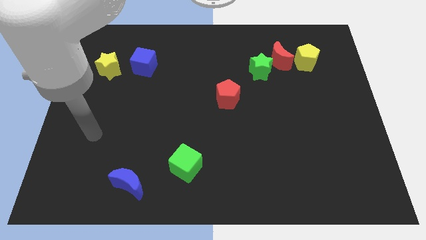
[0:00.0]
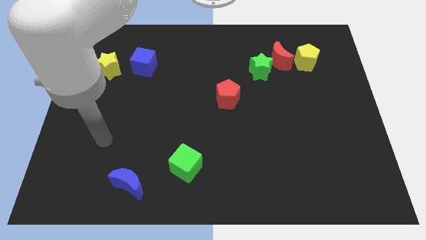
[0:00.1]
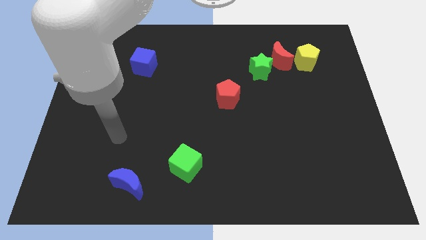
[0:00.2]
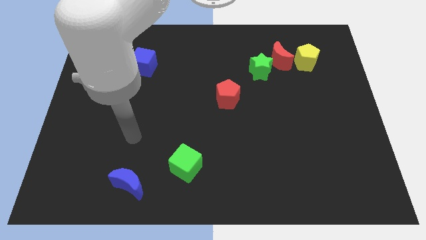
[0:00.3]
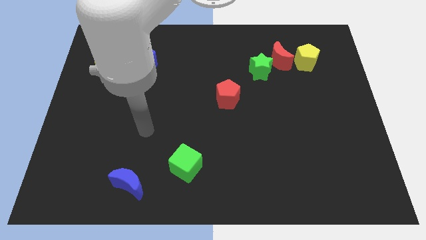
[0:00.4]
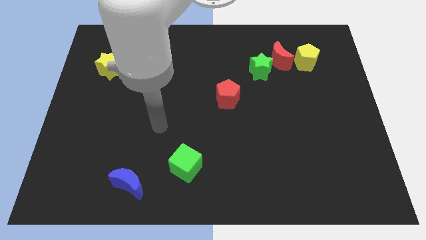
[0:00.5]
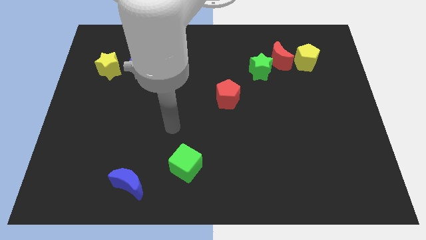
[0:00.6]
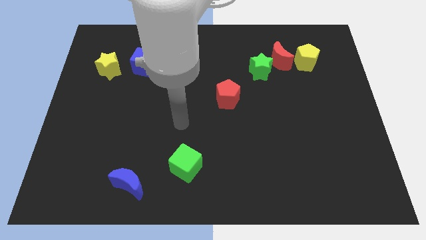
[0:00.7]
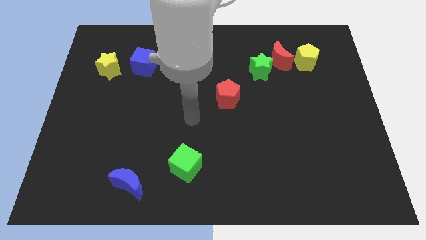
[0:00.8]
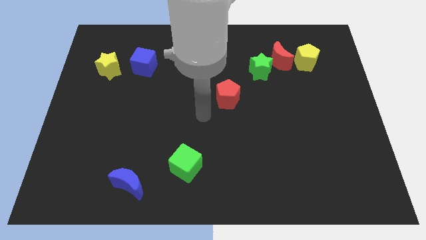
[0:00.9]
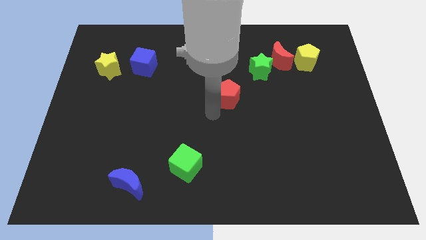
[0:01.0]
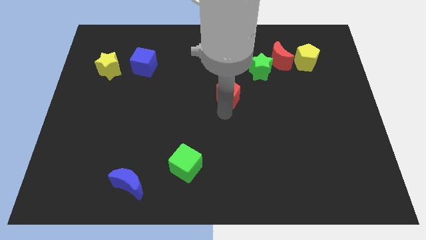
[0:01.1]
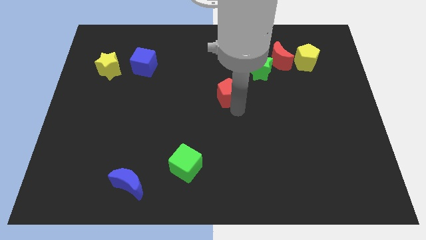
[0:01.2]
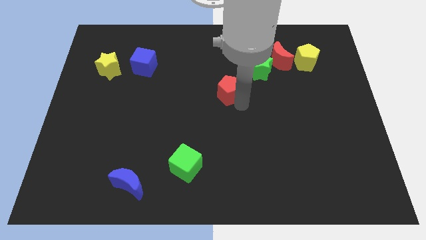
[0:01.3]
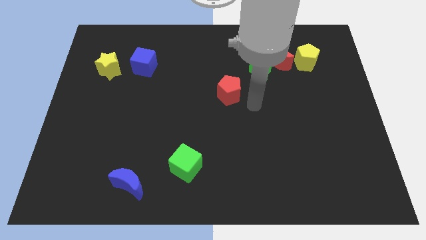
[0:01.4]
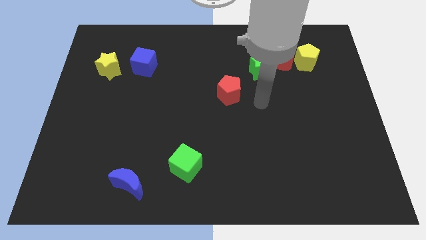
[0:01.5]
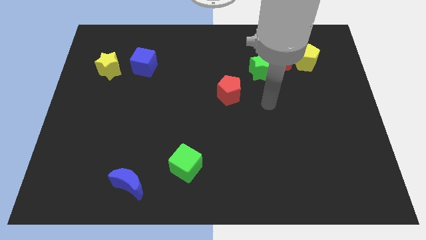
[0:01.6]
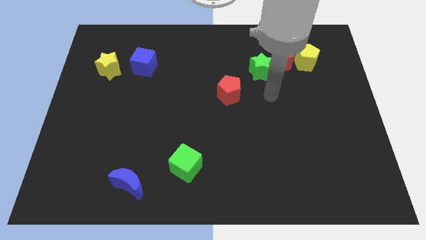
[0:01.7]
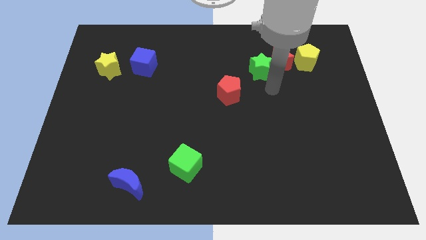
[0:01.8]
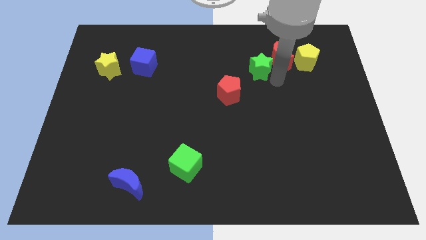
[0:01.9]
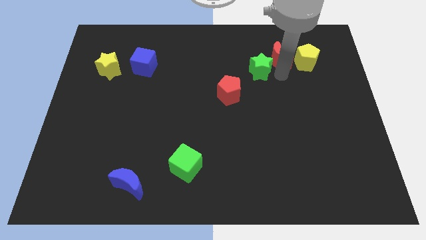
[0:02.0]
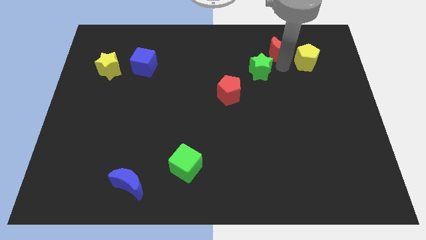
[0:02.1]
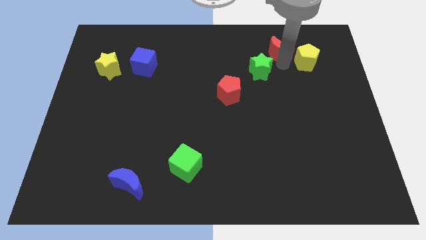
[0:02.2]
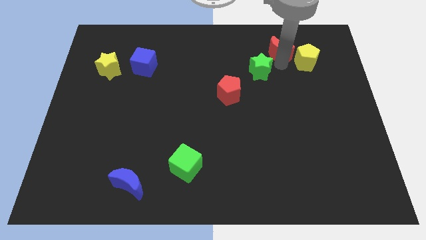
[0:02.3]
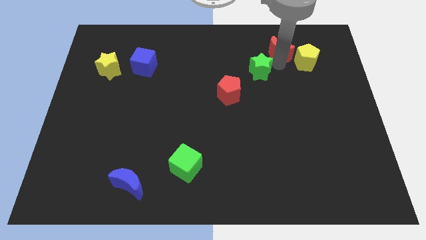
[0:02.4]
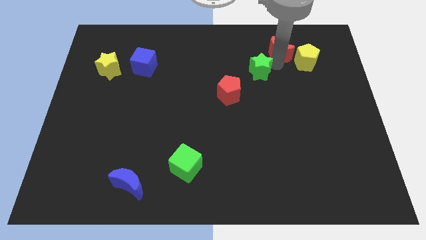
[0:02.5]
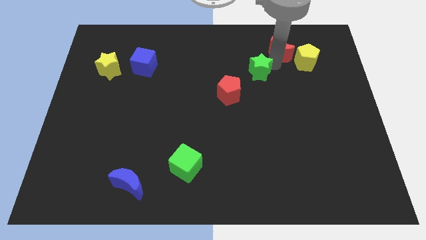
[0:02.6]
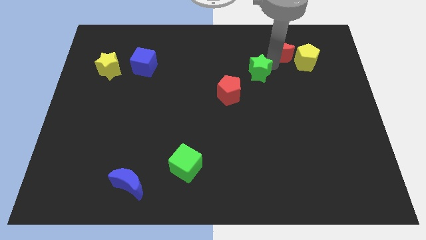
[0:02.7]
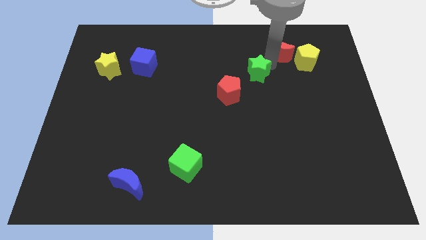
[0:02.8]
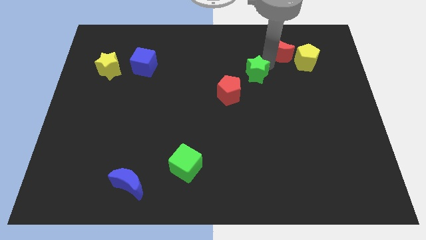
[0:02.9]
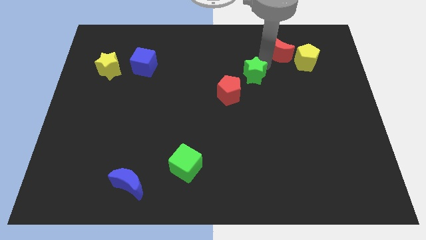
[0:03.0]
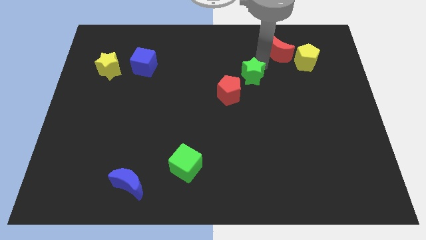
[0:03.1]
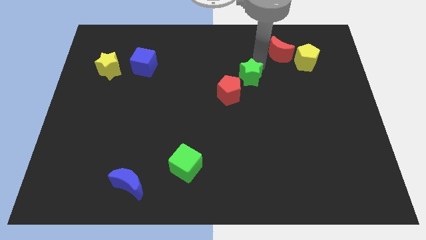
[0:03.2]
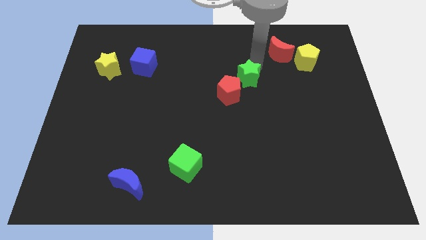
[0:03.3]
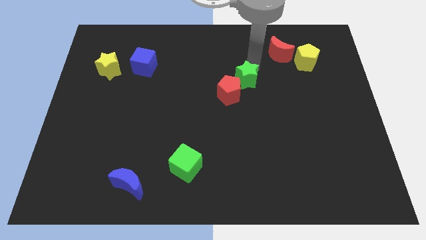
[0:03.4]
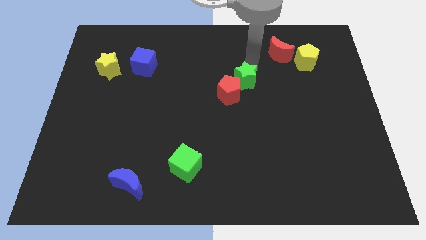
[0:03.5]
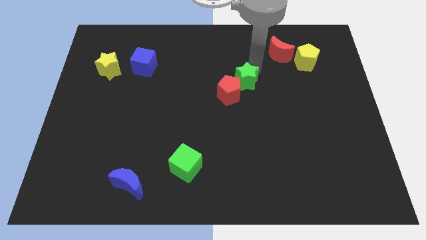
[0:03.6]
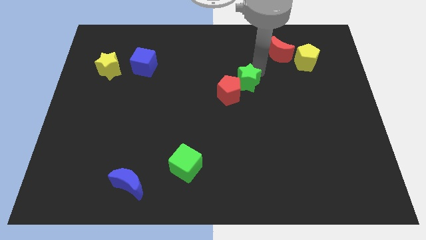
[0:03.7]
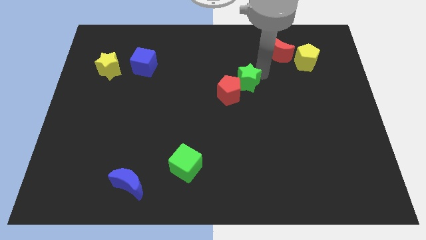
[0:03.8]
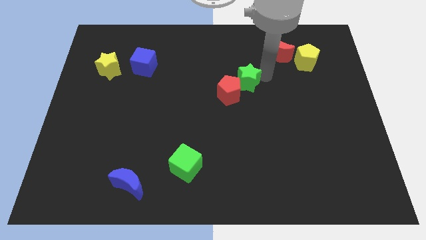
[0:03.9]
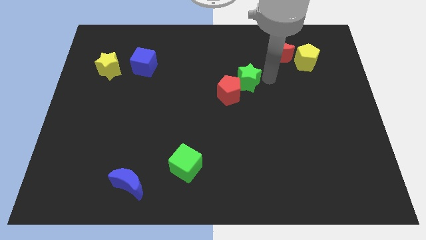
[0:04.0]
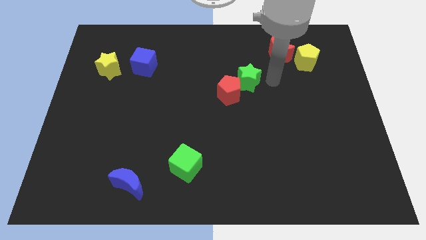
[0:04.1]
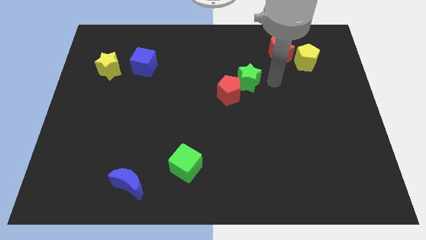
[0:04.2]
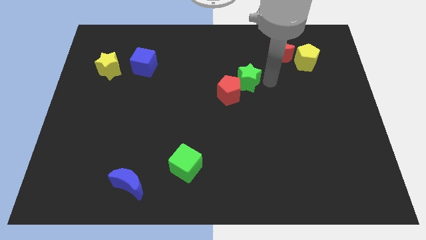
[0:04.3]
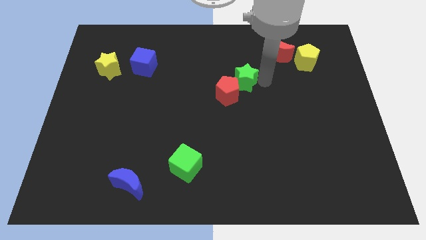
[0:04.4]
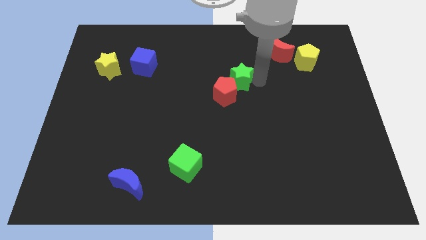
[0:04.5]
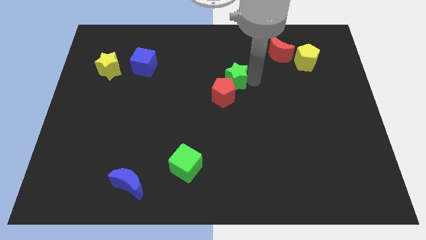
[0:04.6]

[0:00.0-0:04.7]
push the green star downwards and left diagonally a bit

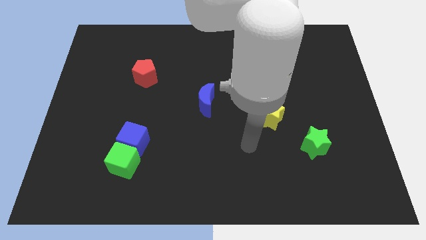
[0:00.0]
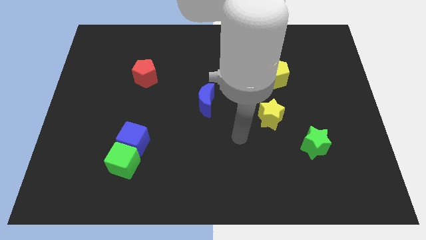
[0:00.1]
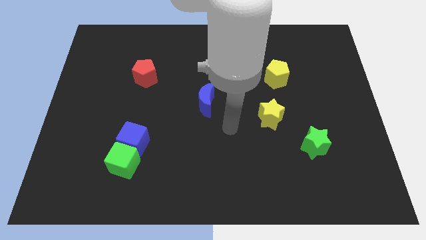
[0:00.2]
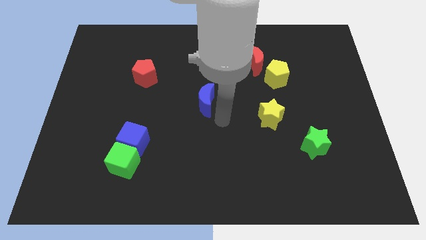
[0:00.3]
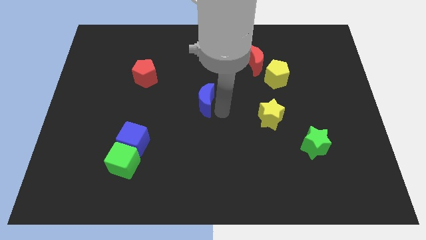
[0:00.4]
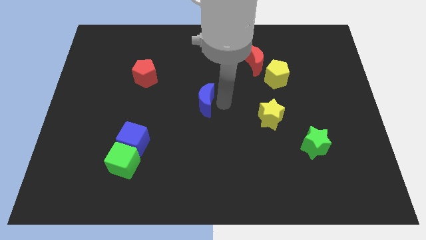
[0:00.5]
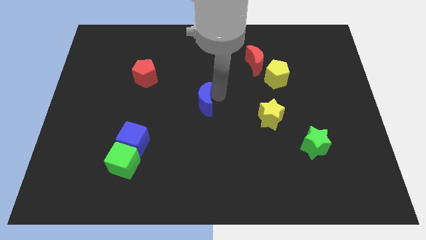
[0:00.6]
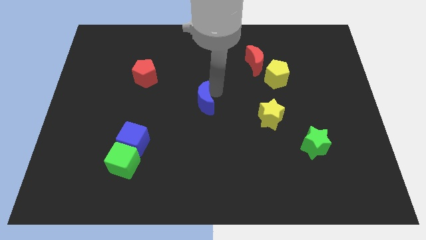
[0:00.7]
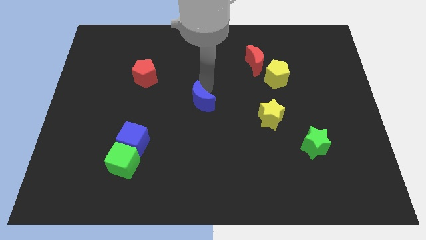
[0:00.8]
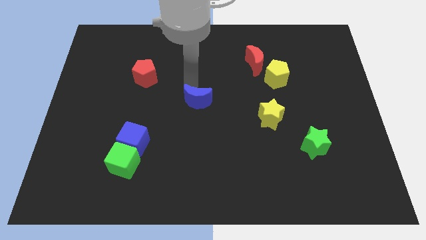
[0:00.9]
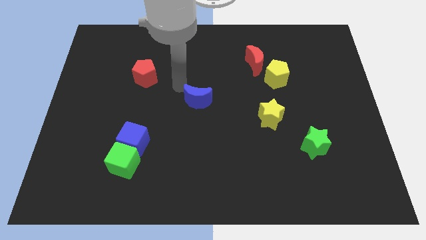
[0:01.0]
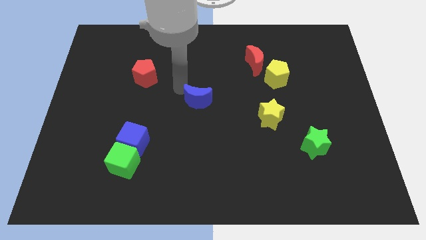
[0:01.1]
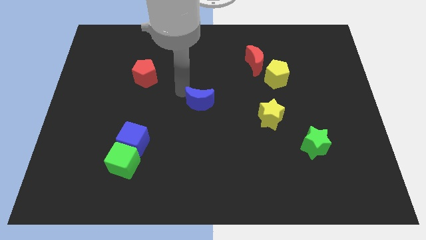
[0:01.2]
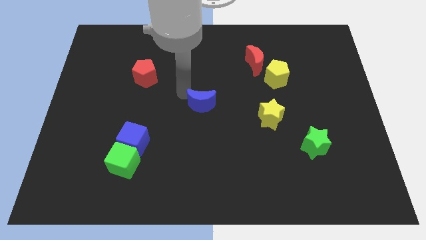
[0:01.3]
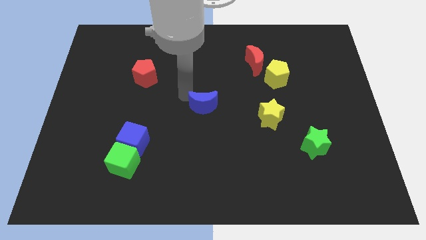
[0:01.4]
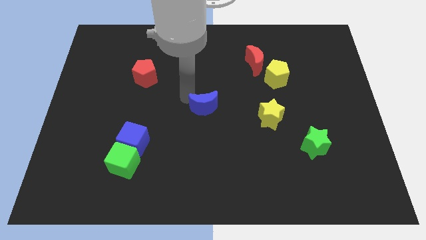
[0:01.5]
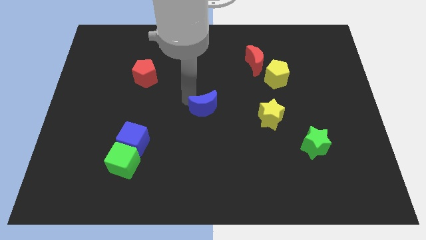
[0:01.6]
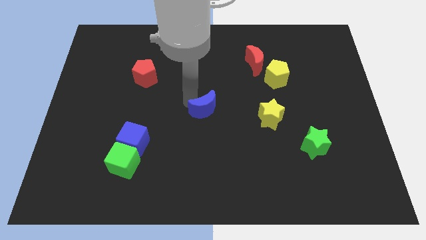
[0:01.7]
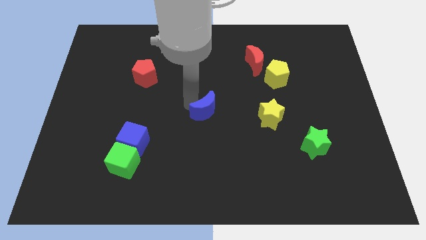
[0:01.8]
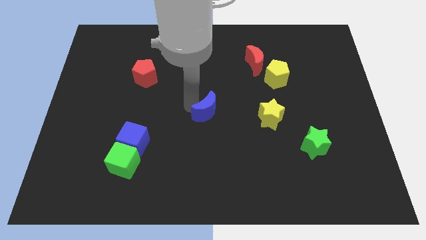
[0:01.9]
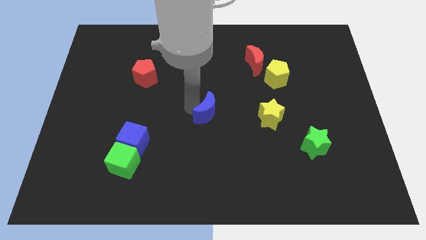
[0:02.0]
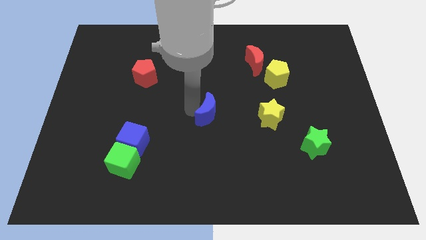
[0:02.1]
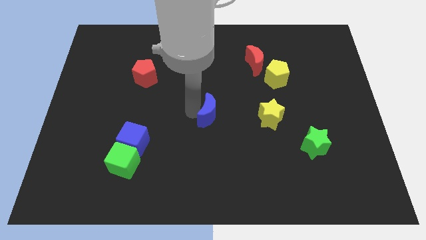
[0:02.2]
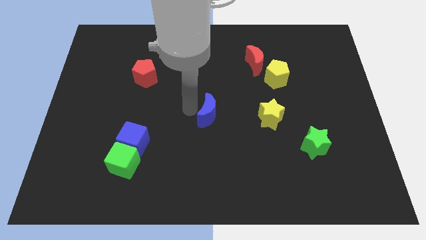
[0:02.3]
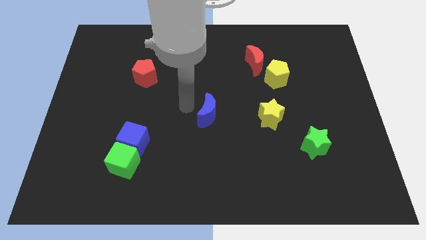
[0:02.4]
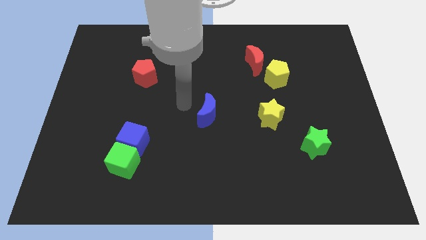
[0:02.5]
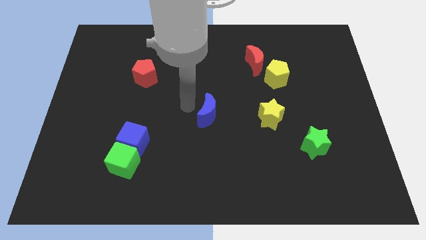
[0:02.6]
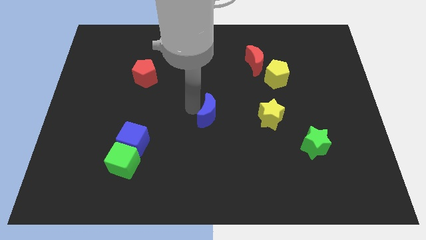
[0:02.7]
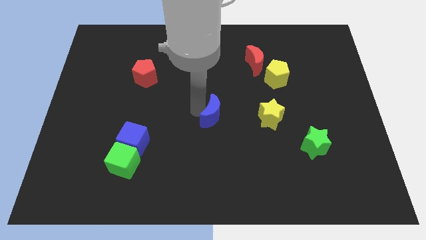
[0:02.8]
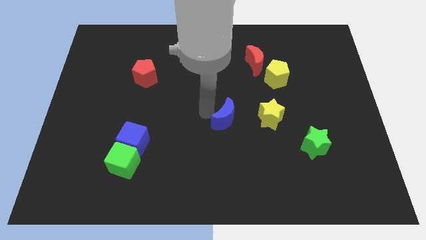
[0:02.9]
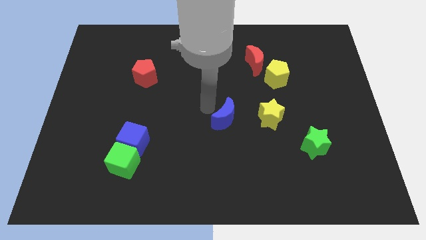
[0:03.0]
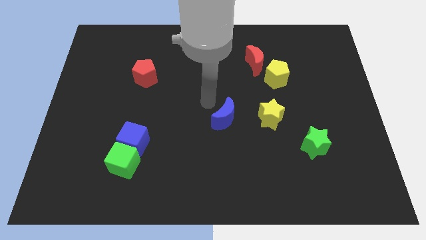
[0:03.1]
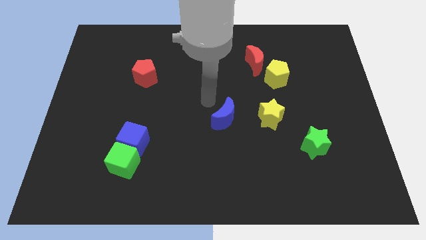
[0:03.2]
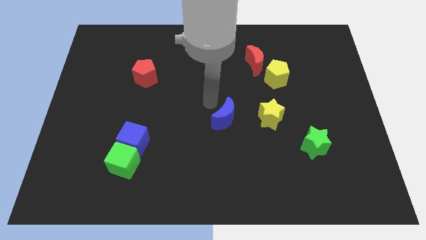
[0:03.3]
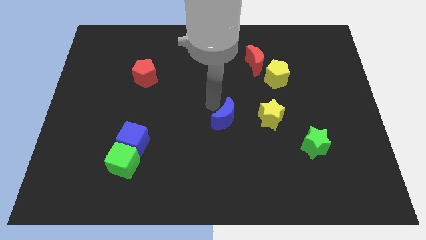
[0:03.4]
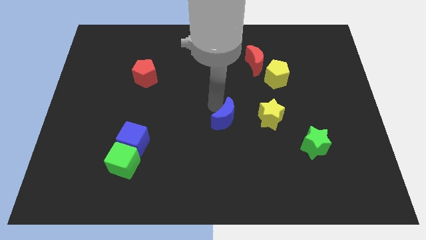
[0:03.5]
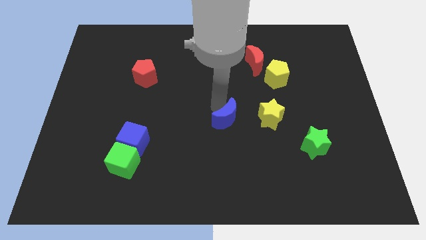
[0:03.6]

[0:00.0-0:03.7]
move the blue moon downwards and then right a little bit
